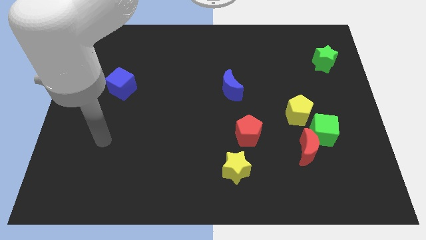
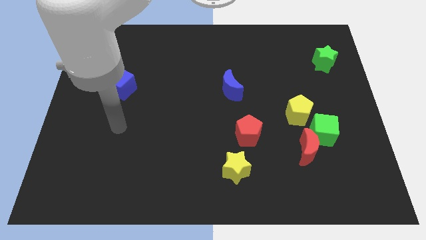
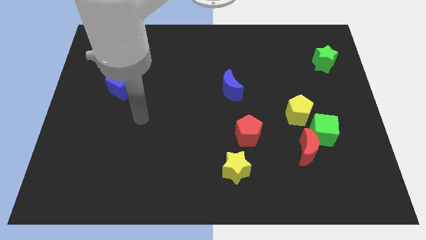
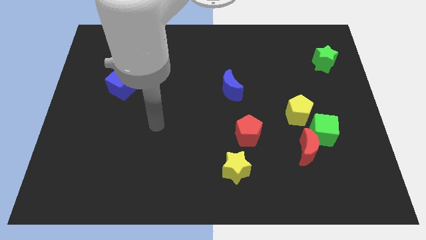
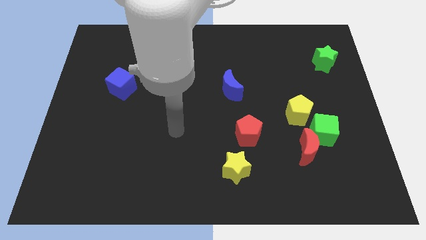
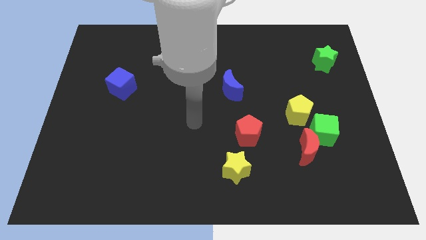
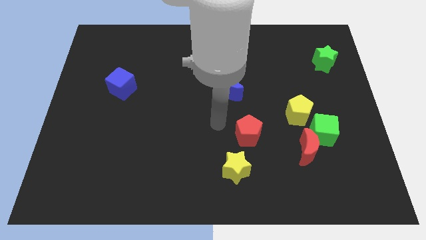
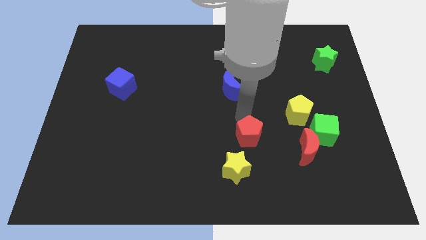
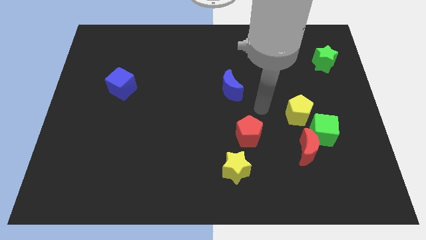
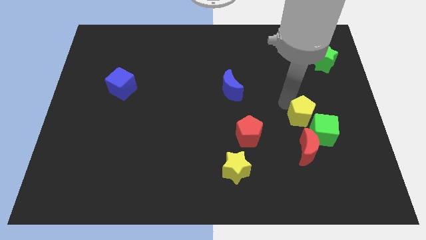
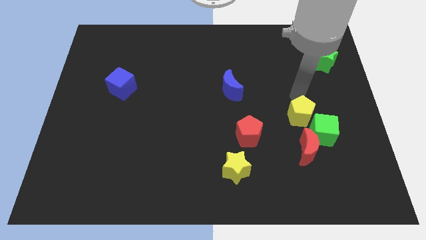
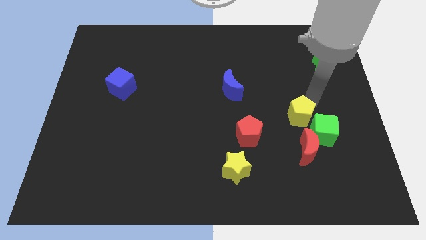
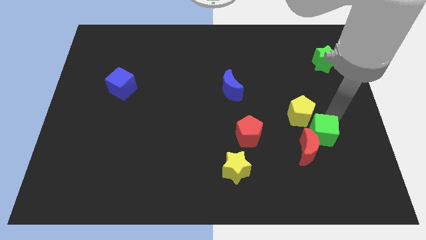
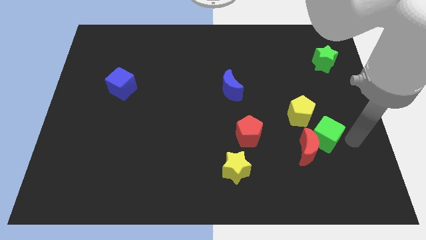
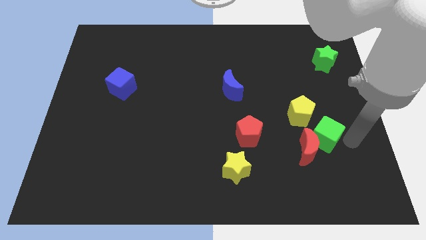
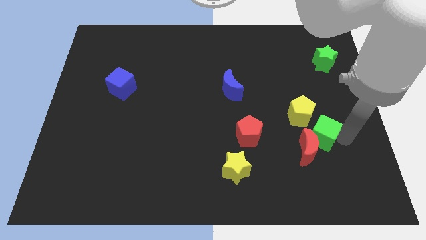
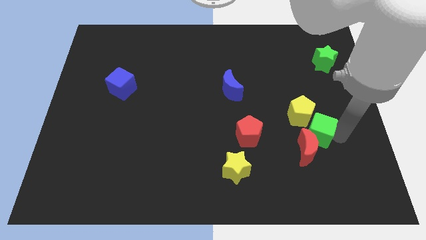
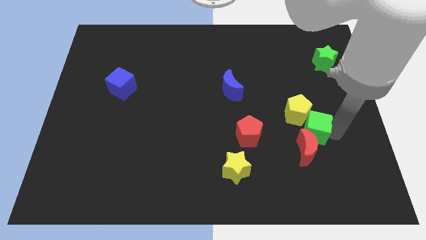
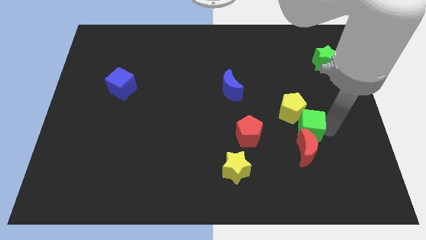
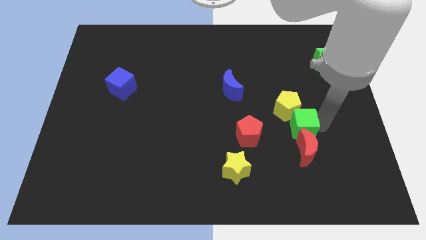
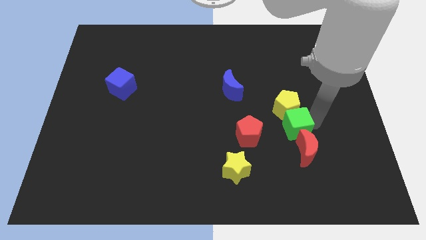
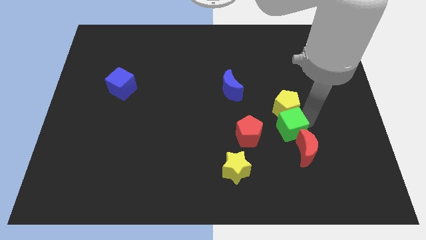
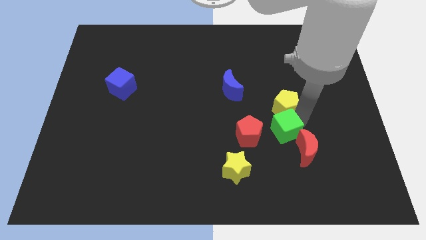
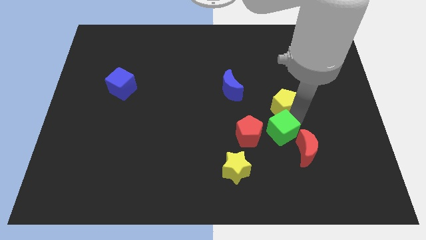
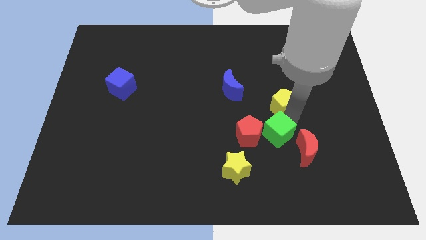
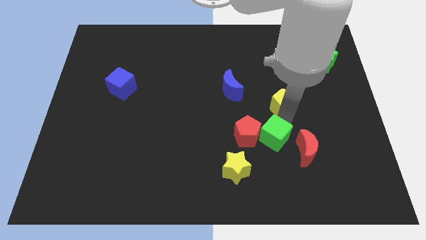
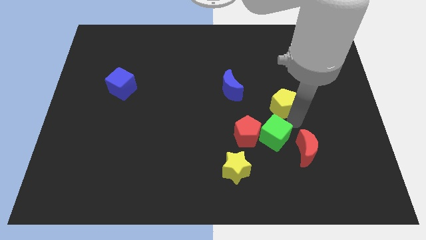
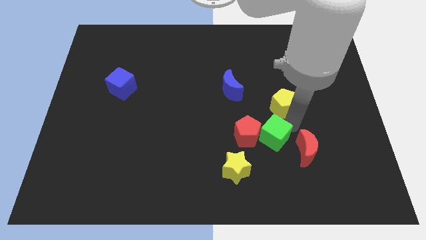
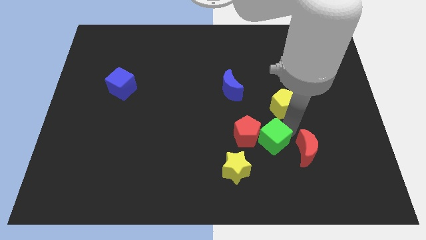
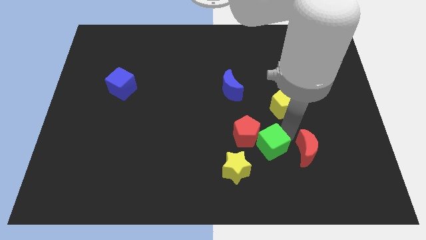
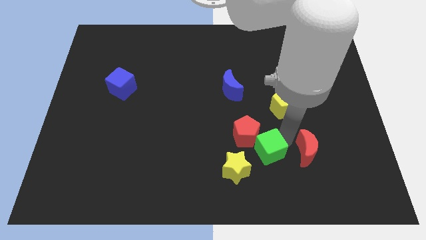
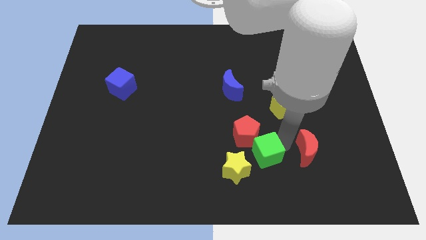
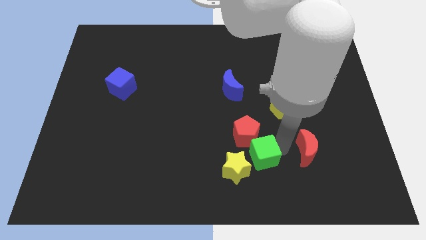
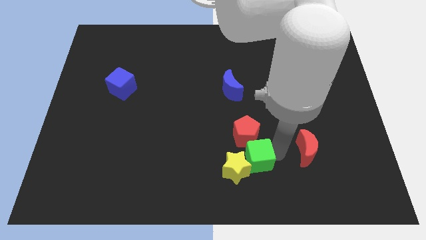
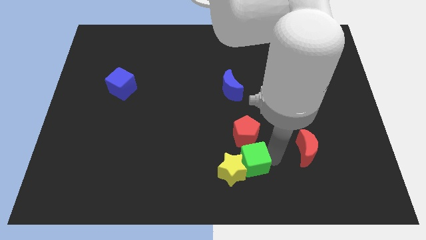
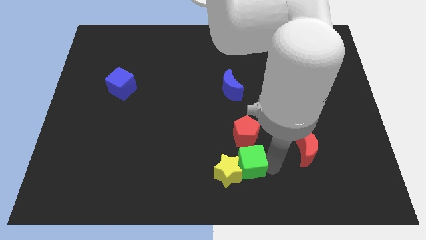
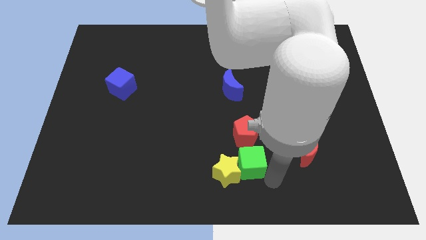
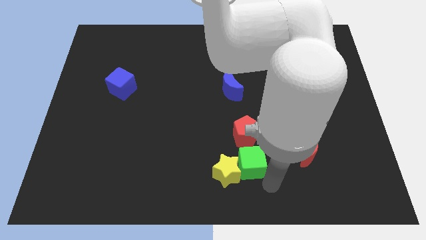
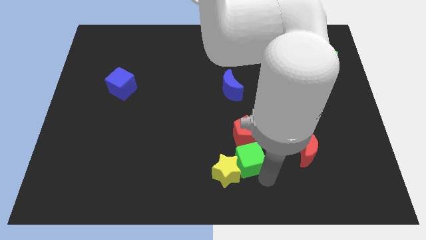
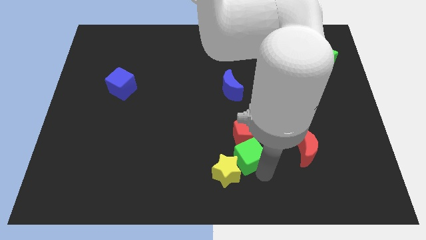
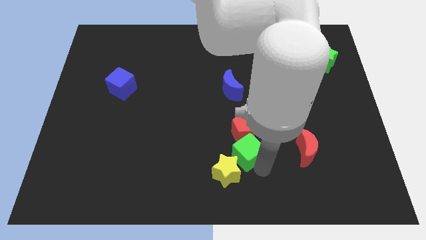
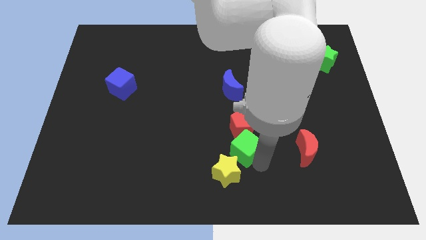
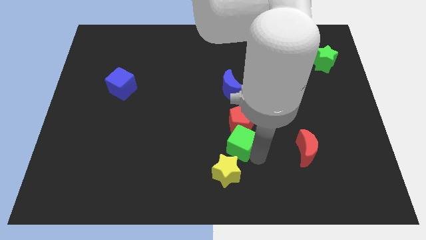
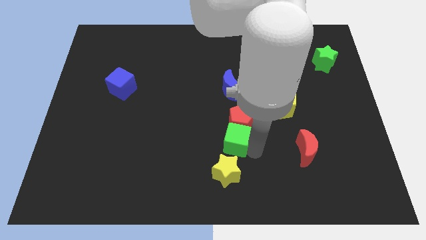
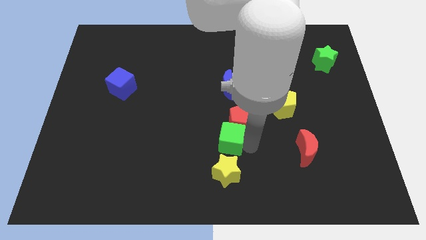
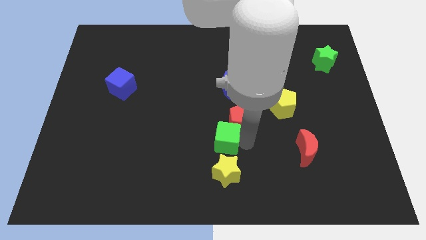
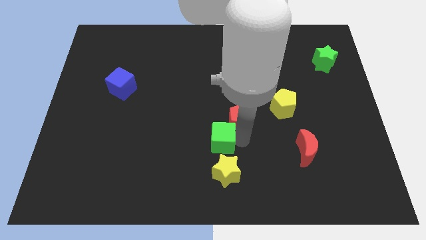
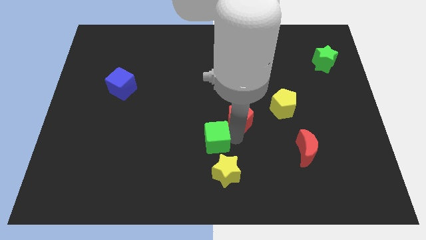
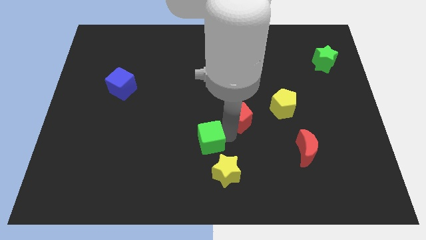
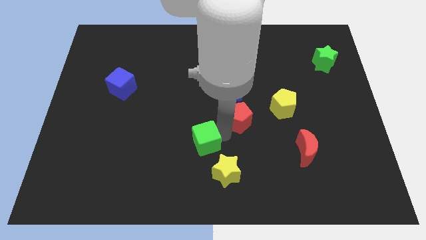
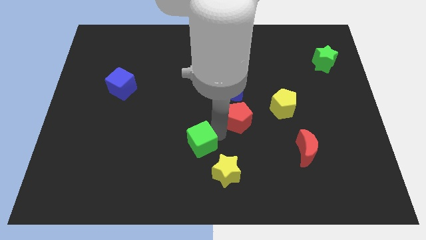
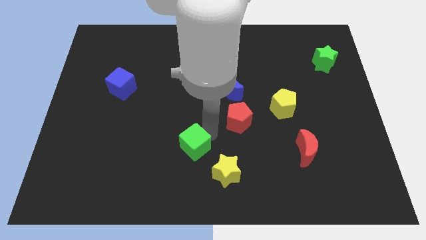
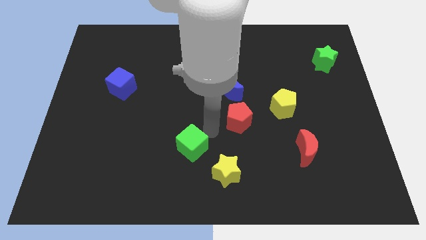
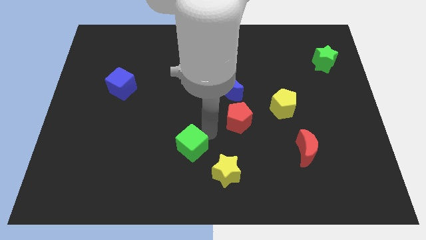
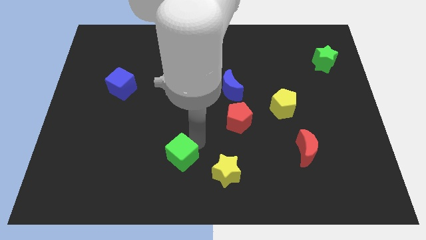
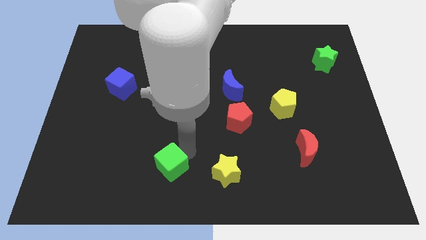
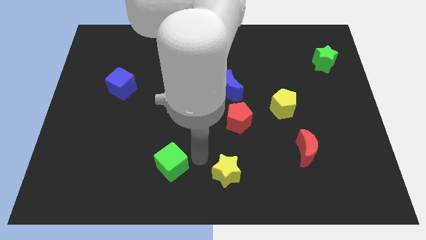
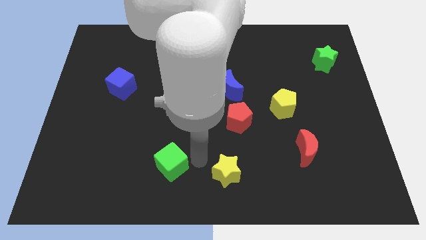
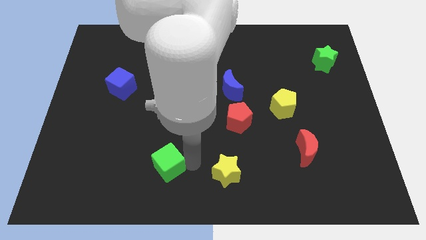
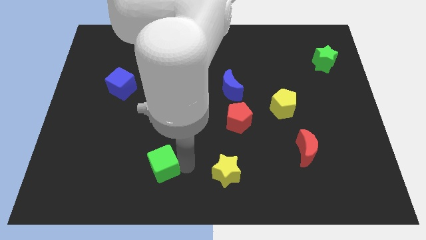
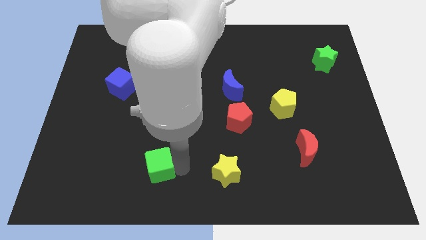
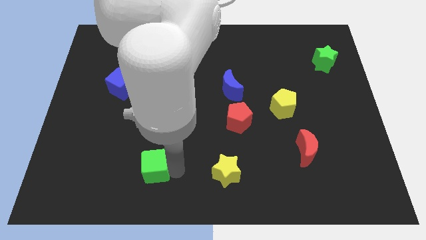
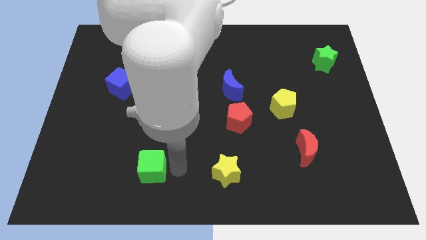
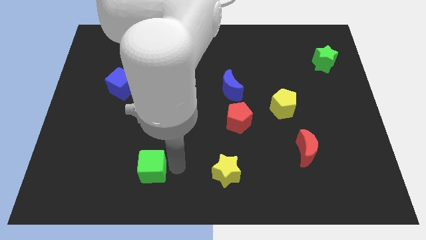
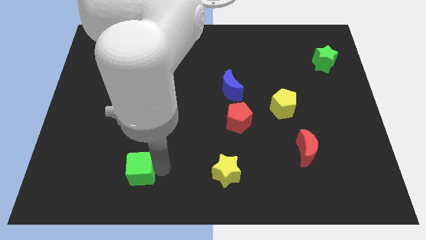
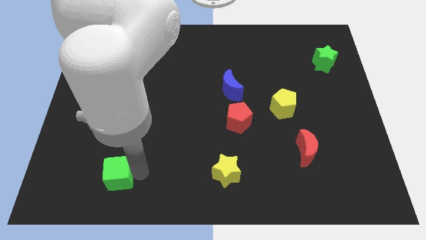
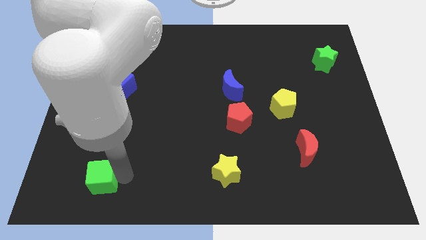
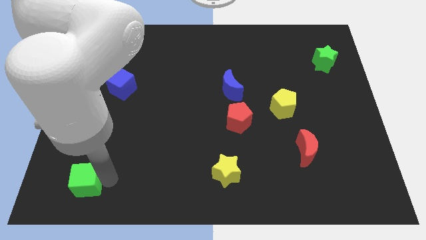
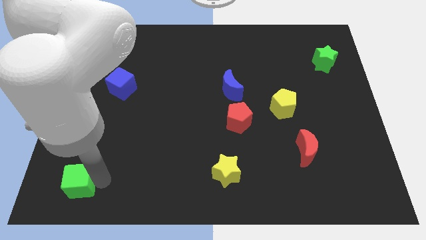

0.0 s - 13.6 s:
move the green cube to the bottom left
